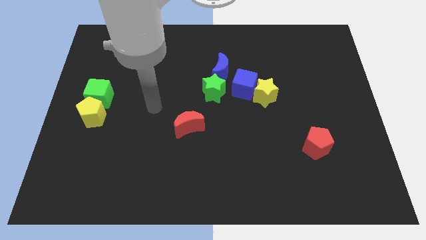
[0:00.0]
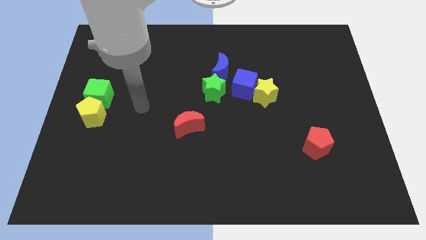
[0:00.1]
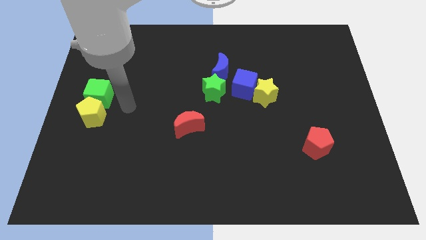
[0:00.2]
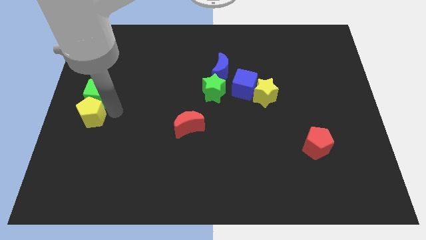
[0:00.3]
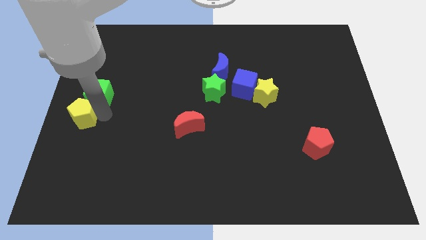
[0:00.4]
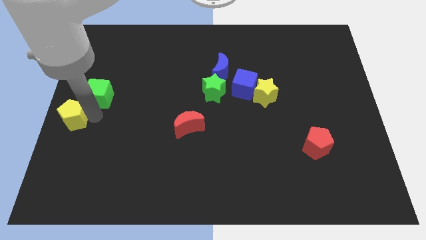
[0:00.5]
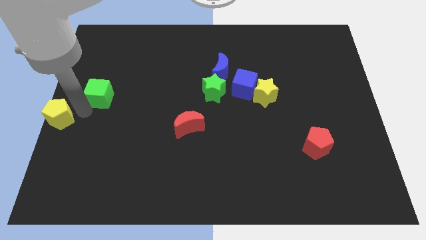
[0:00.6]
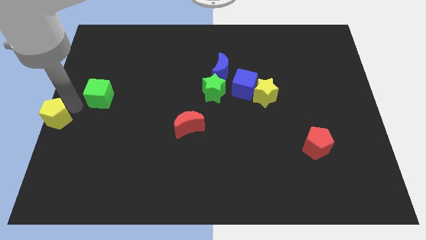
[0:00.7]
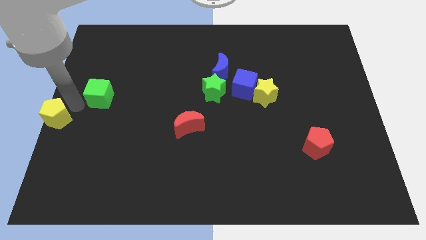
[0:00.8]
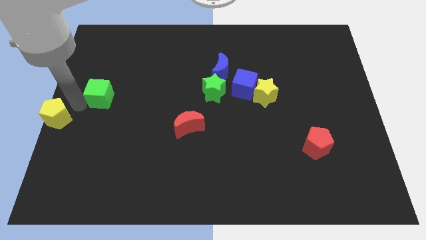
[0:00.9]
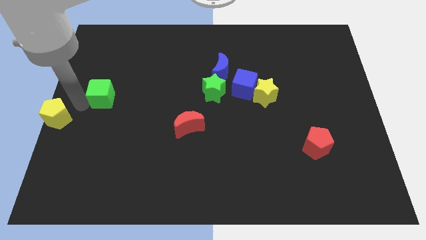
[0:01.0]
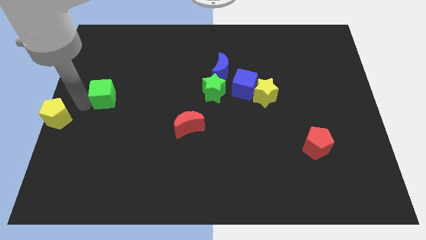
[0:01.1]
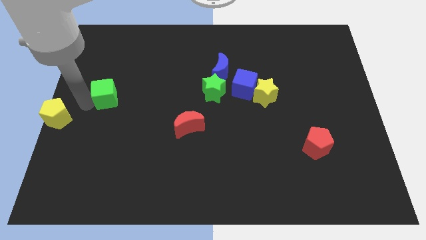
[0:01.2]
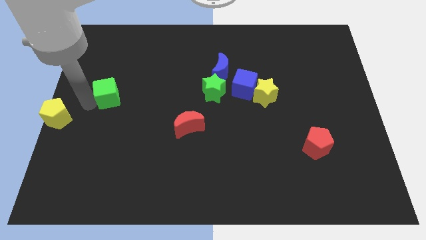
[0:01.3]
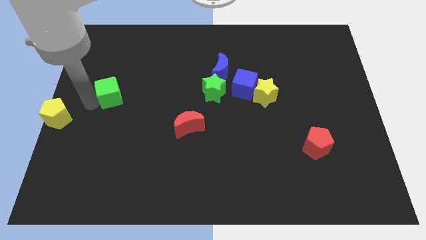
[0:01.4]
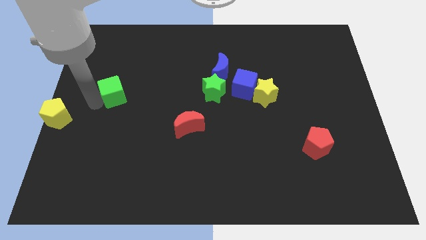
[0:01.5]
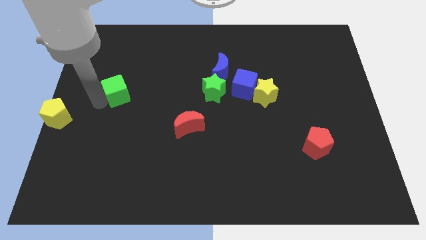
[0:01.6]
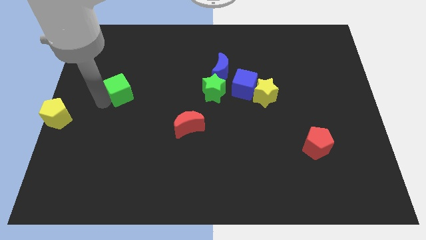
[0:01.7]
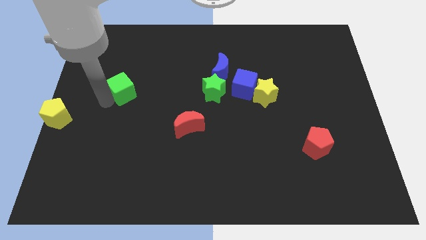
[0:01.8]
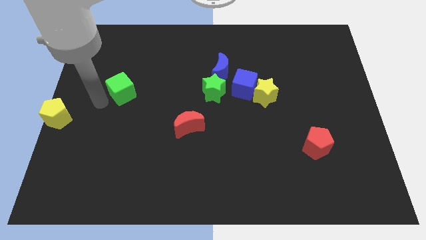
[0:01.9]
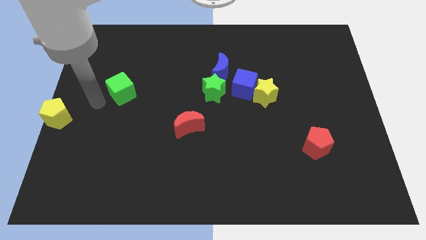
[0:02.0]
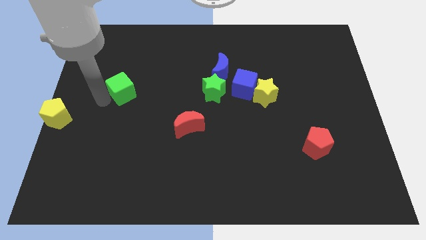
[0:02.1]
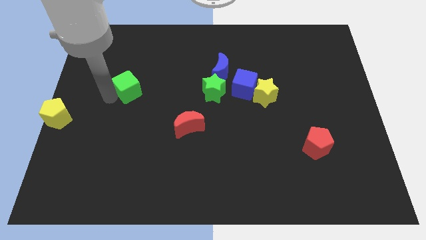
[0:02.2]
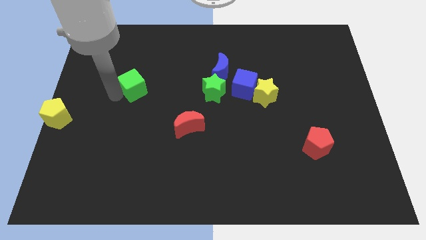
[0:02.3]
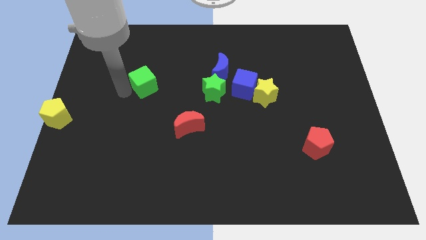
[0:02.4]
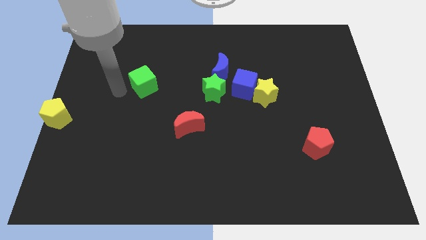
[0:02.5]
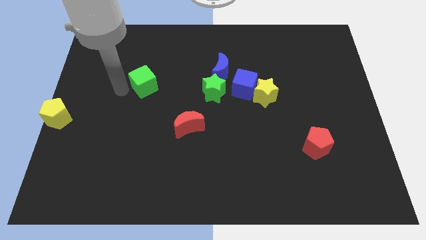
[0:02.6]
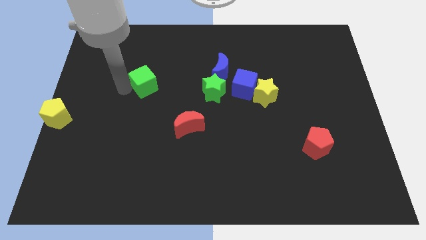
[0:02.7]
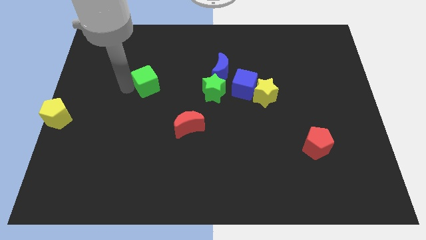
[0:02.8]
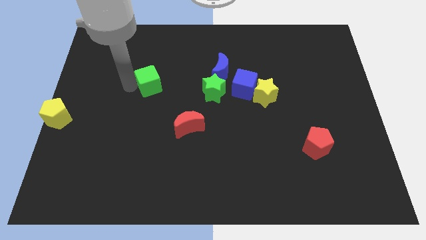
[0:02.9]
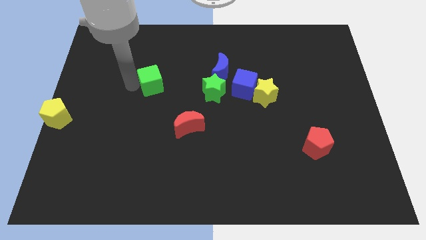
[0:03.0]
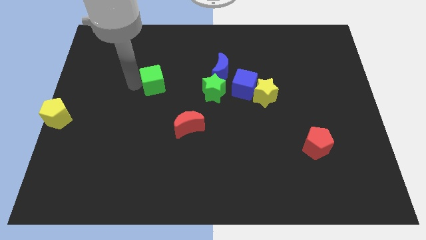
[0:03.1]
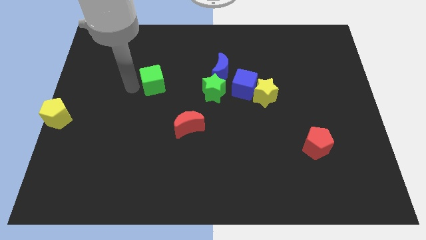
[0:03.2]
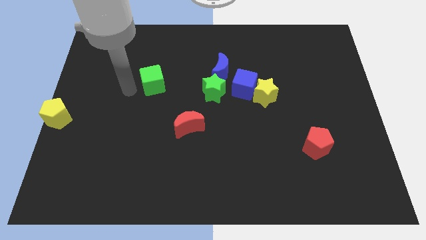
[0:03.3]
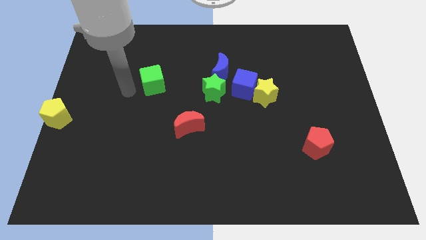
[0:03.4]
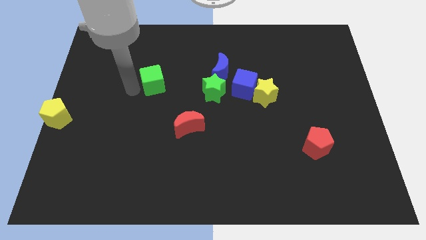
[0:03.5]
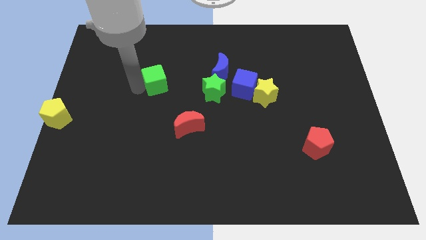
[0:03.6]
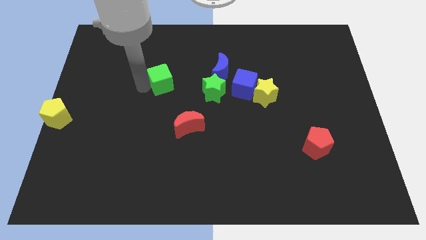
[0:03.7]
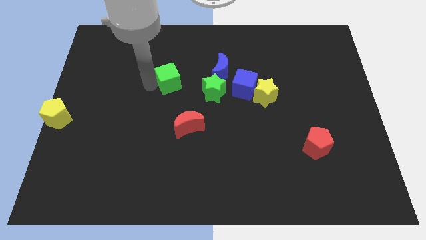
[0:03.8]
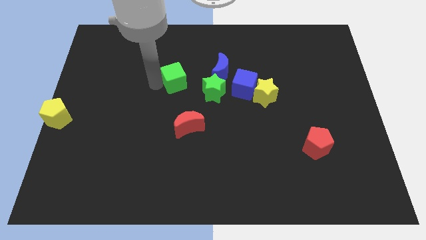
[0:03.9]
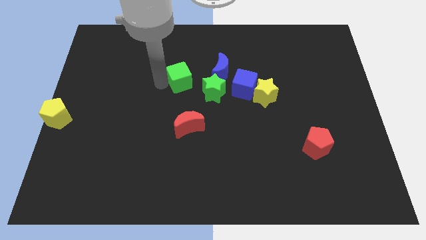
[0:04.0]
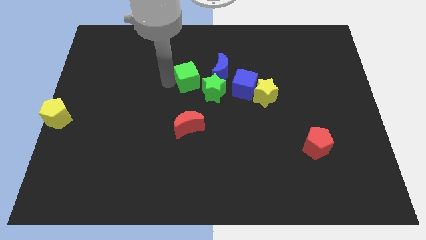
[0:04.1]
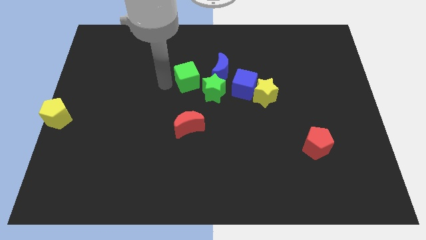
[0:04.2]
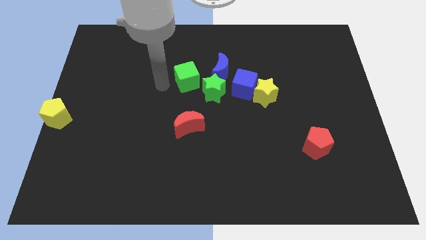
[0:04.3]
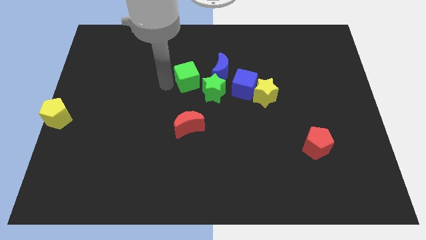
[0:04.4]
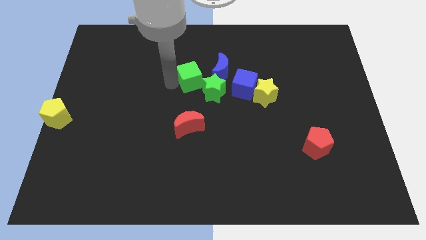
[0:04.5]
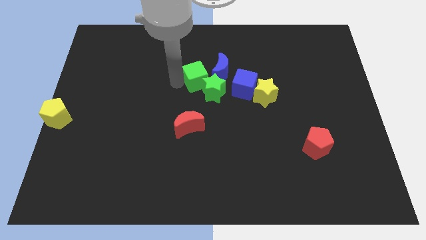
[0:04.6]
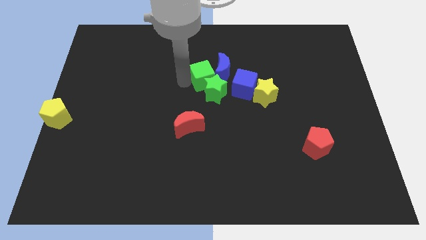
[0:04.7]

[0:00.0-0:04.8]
put the green cube to the blue moon

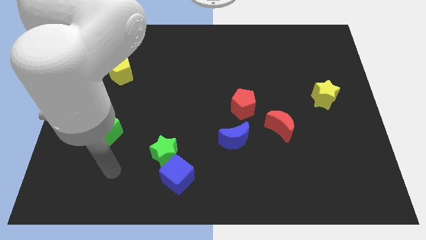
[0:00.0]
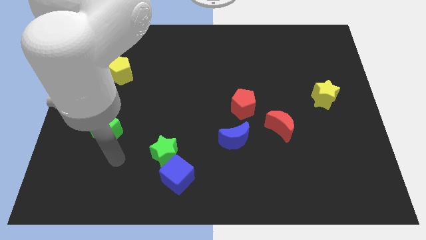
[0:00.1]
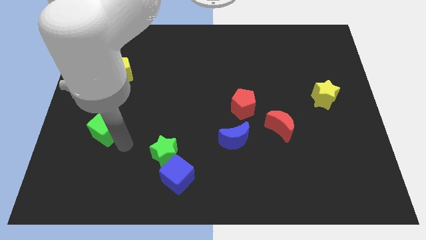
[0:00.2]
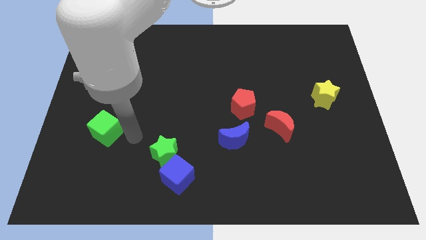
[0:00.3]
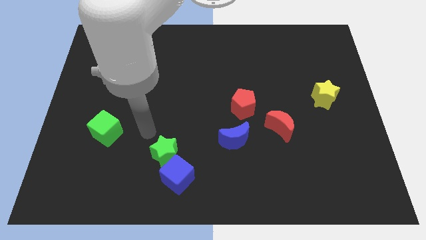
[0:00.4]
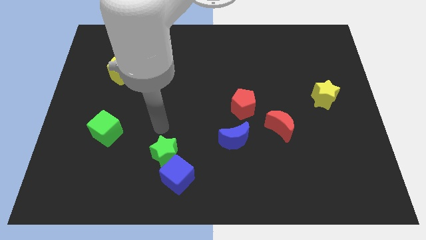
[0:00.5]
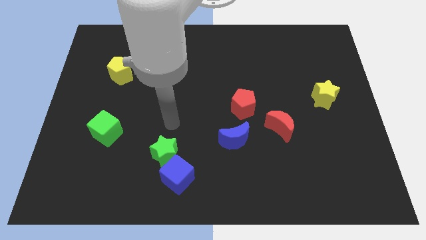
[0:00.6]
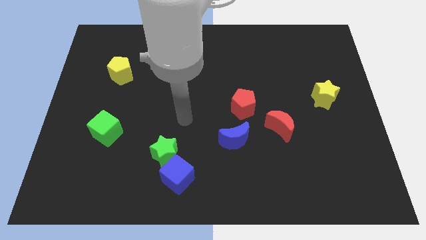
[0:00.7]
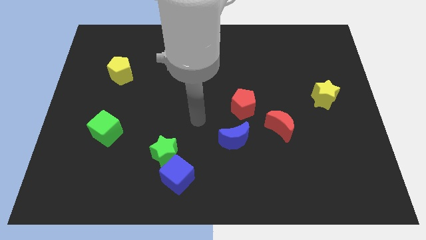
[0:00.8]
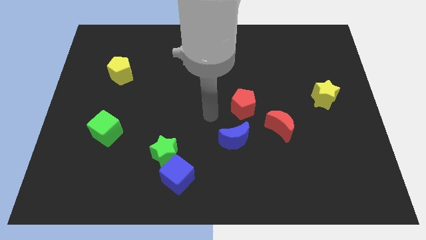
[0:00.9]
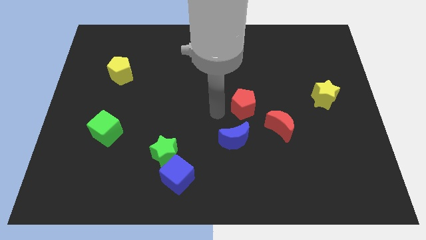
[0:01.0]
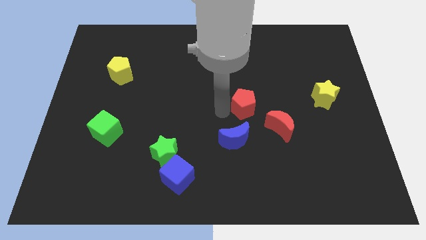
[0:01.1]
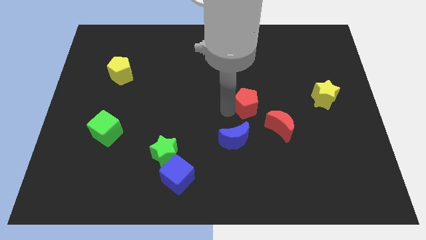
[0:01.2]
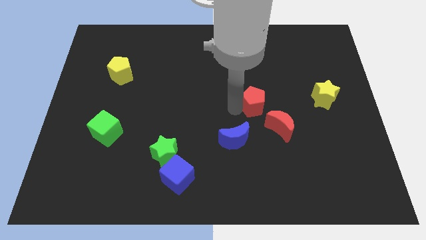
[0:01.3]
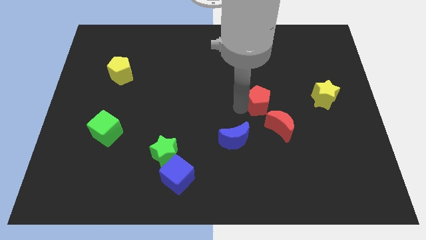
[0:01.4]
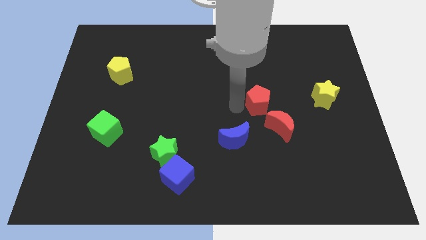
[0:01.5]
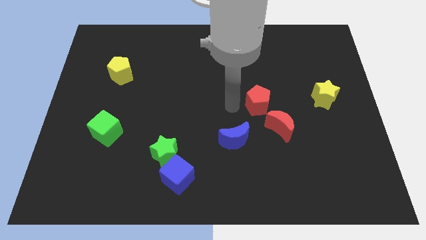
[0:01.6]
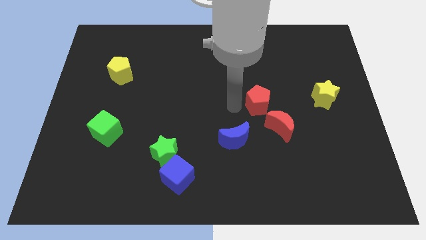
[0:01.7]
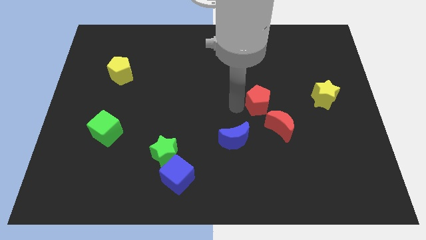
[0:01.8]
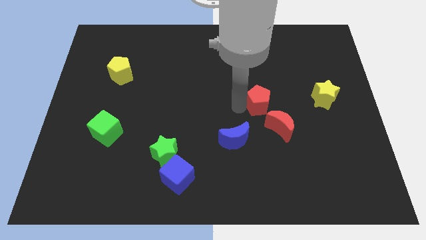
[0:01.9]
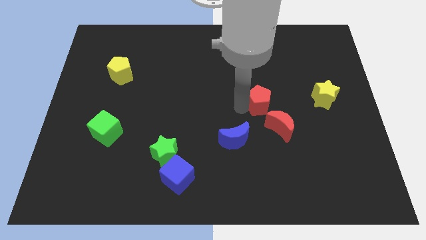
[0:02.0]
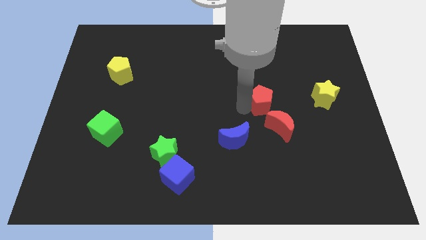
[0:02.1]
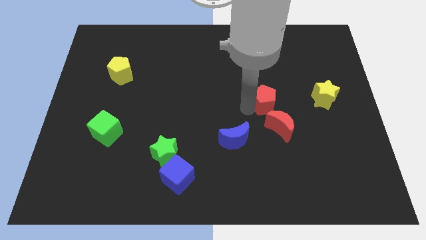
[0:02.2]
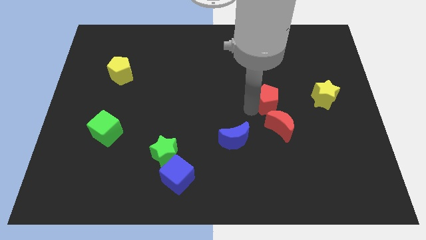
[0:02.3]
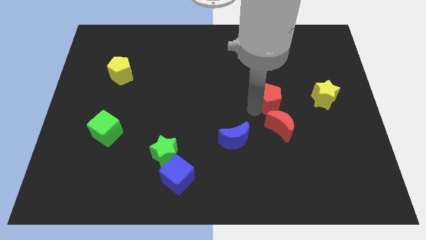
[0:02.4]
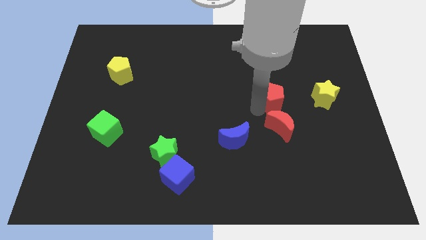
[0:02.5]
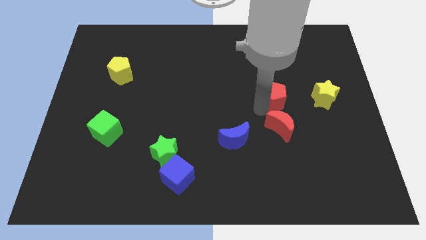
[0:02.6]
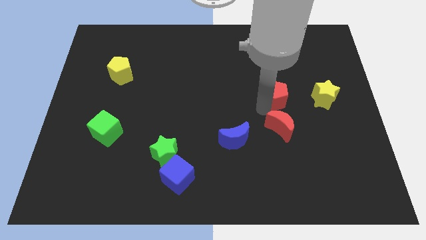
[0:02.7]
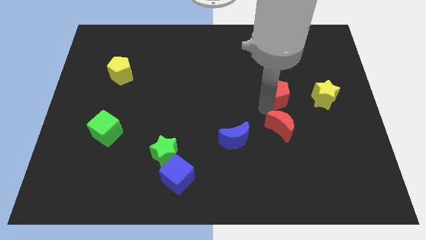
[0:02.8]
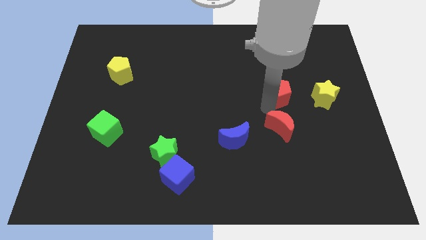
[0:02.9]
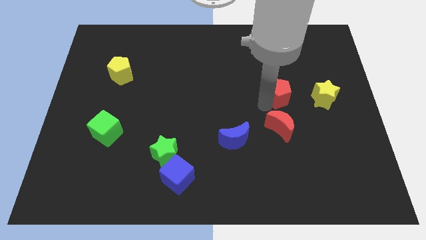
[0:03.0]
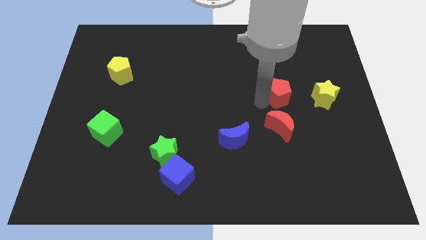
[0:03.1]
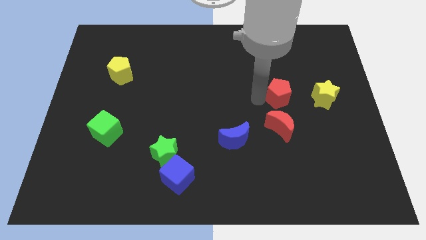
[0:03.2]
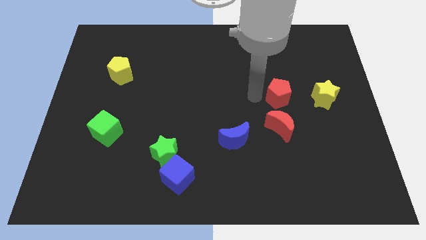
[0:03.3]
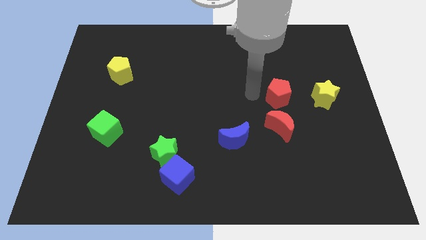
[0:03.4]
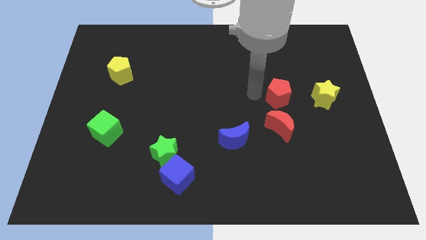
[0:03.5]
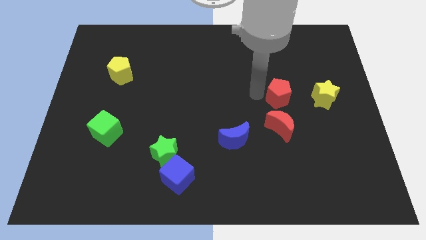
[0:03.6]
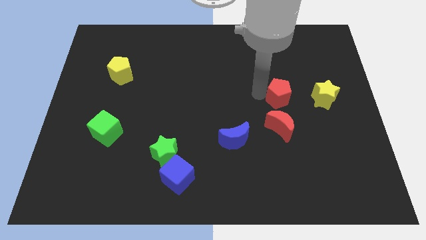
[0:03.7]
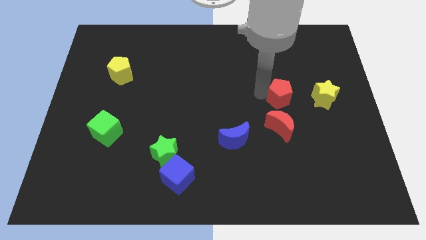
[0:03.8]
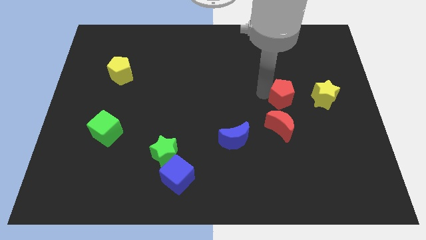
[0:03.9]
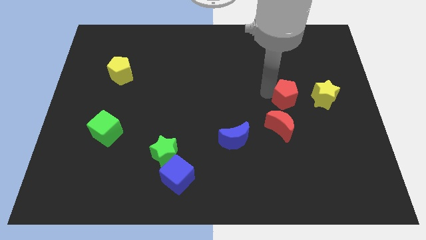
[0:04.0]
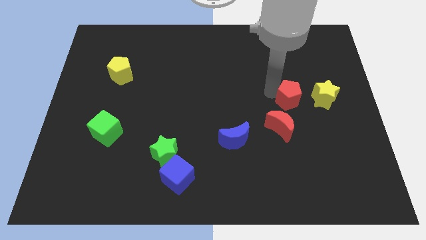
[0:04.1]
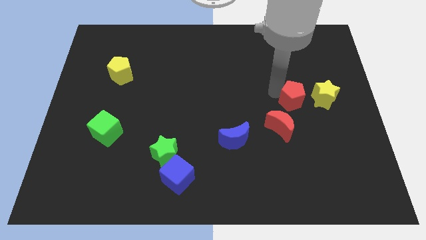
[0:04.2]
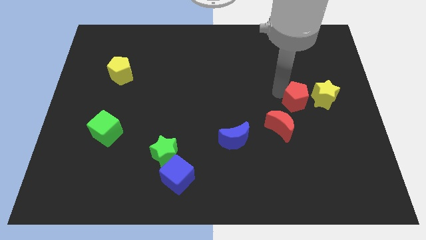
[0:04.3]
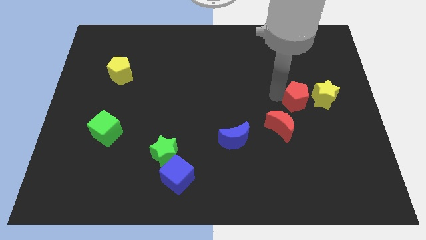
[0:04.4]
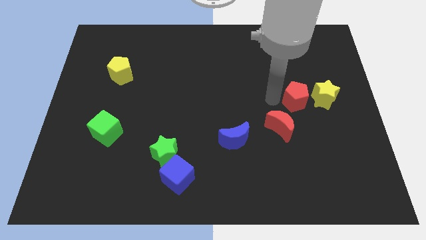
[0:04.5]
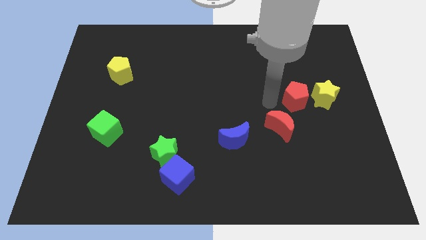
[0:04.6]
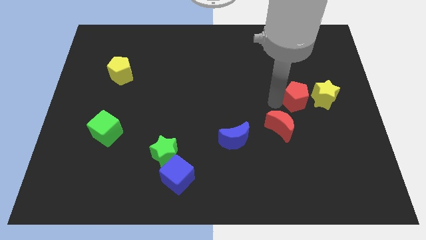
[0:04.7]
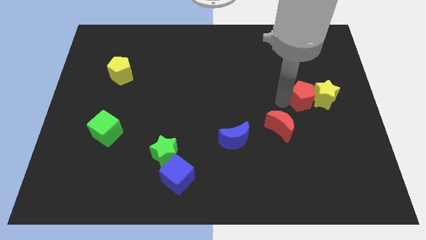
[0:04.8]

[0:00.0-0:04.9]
slide the red pentagon to the yellow star
